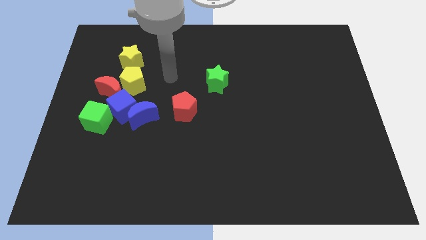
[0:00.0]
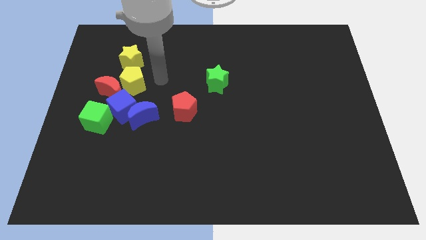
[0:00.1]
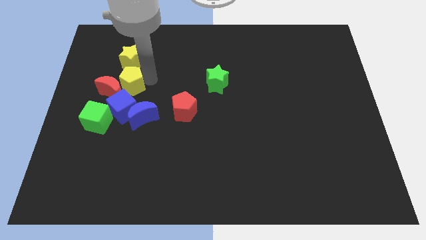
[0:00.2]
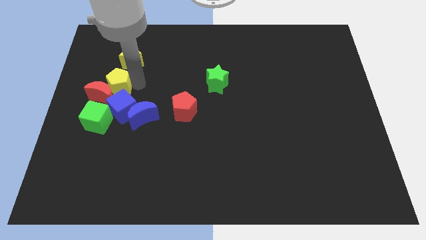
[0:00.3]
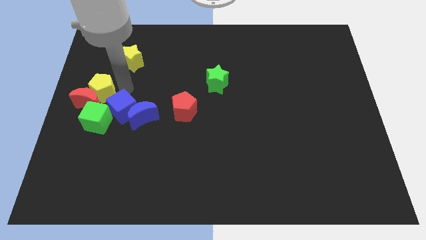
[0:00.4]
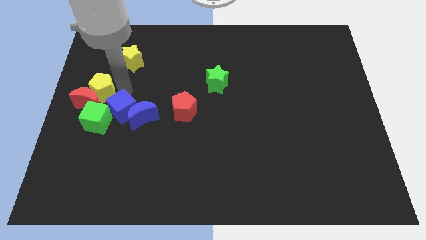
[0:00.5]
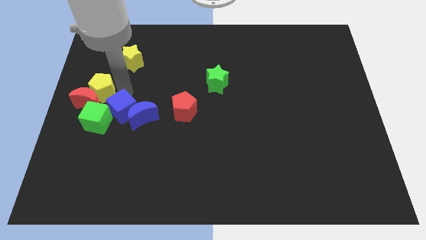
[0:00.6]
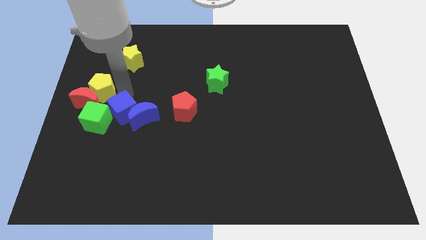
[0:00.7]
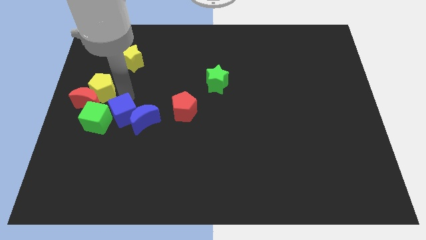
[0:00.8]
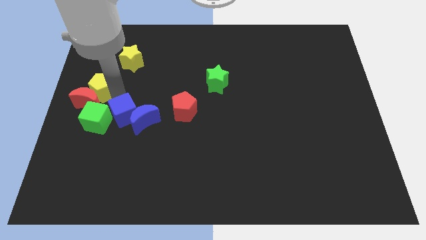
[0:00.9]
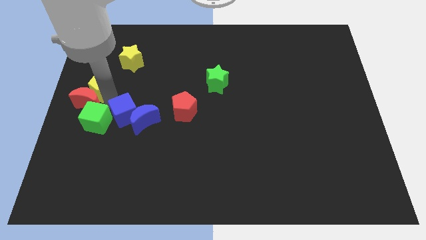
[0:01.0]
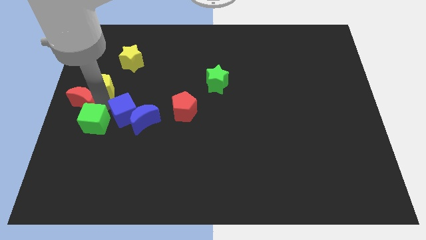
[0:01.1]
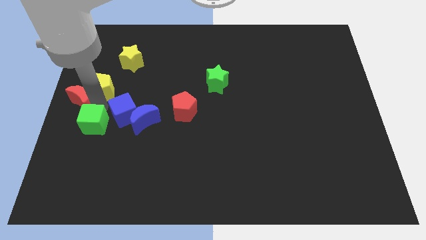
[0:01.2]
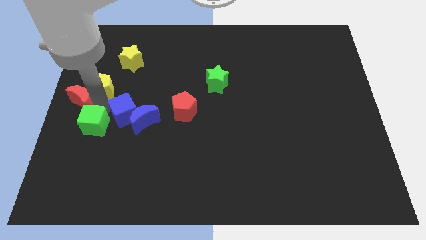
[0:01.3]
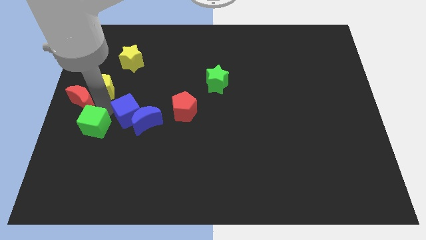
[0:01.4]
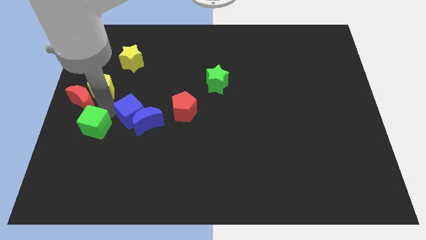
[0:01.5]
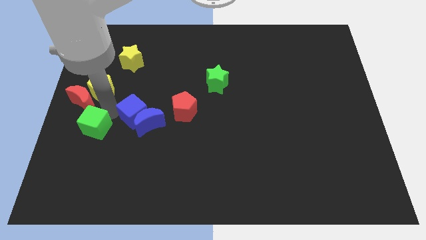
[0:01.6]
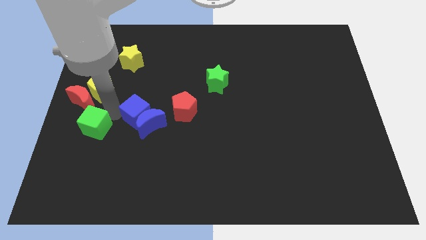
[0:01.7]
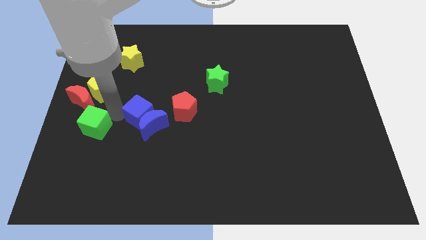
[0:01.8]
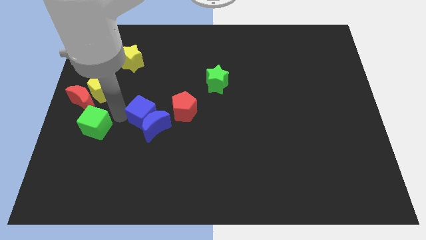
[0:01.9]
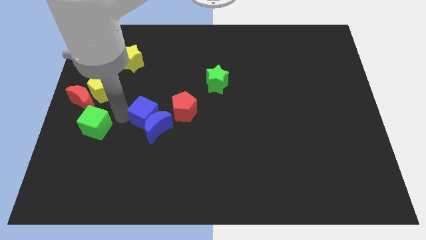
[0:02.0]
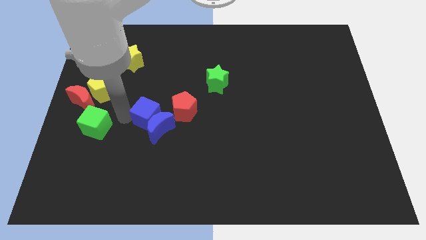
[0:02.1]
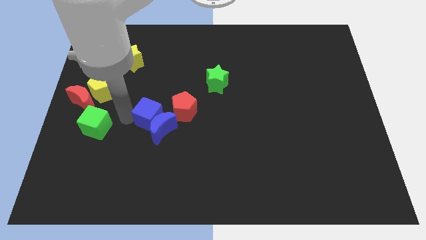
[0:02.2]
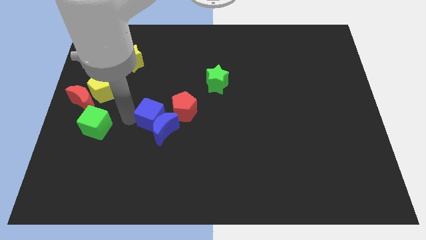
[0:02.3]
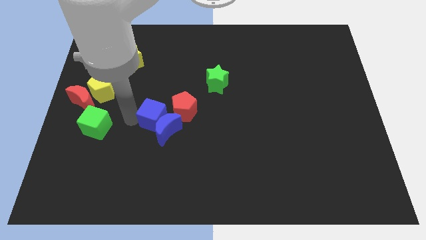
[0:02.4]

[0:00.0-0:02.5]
pull the blue cube apart from the group

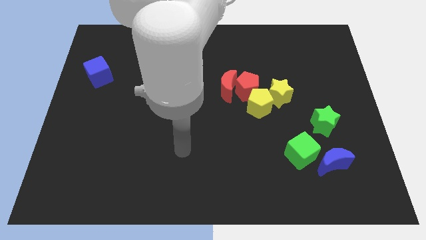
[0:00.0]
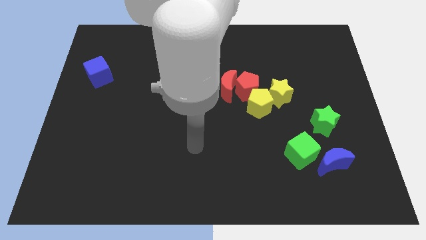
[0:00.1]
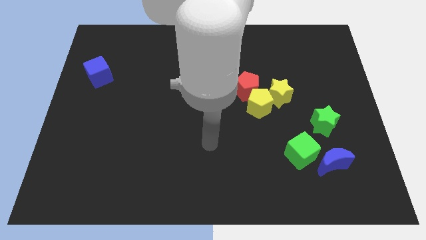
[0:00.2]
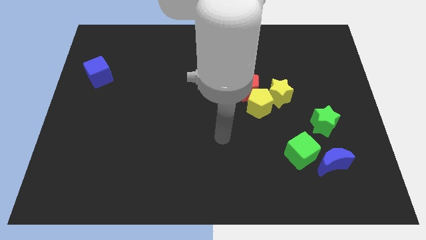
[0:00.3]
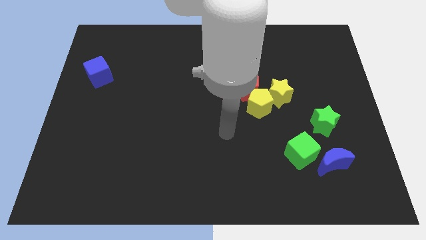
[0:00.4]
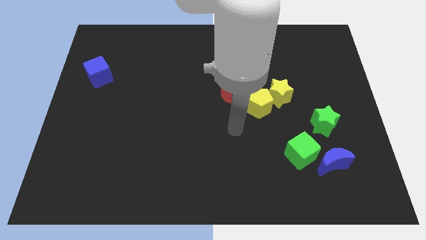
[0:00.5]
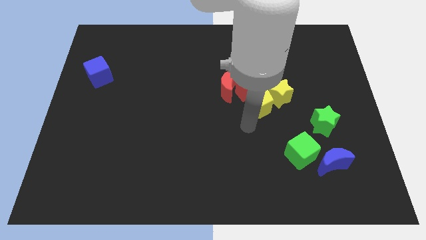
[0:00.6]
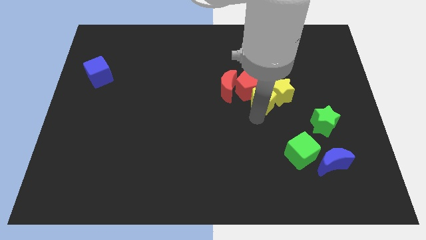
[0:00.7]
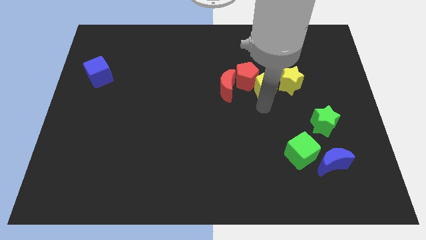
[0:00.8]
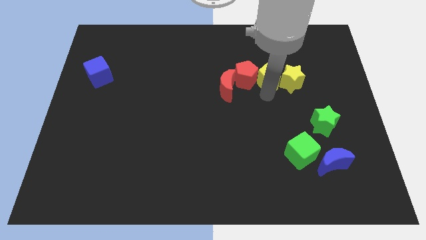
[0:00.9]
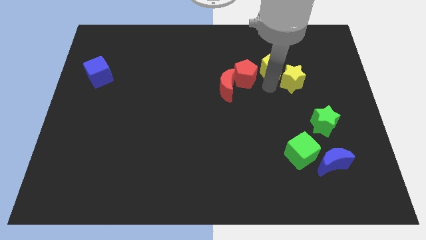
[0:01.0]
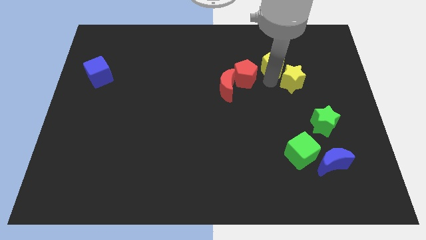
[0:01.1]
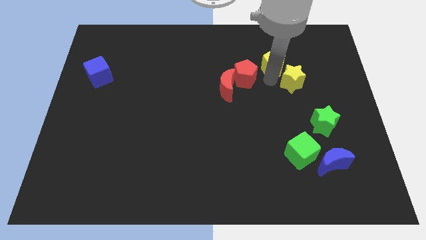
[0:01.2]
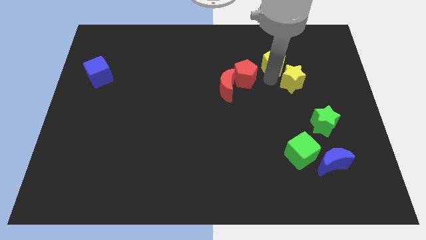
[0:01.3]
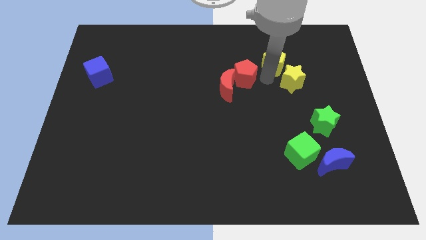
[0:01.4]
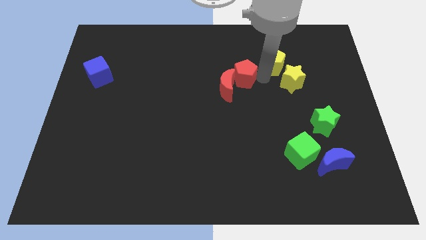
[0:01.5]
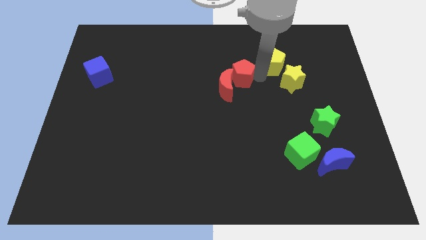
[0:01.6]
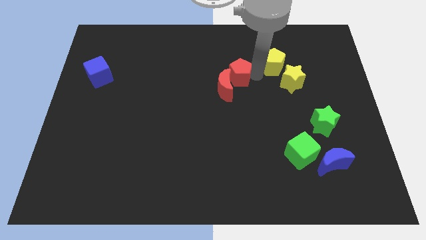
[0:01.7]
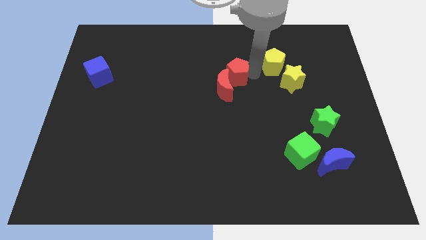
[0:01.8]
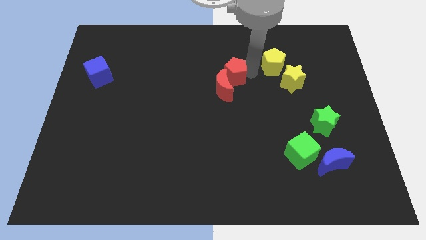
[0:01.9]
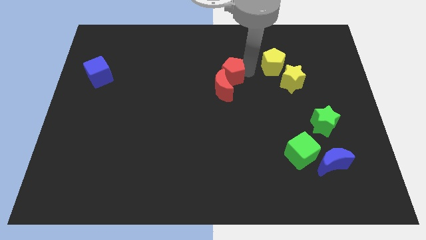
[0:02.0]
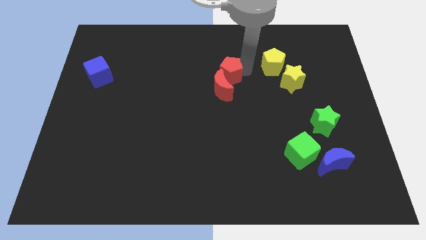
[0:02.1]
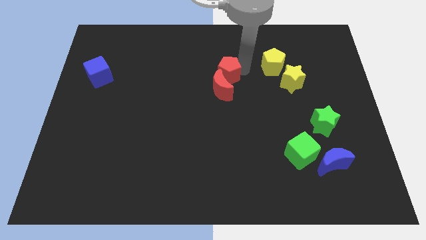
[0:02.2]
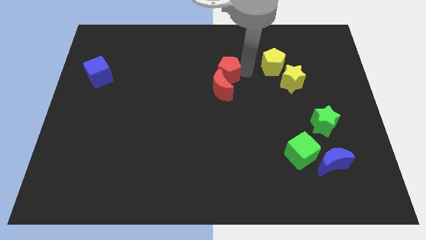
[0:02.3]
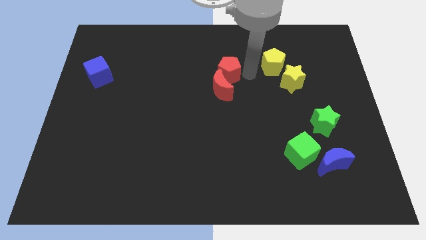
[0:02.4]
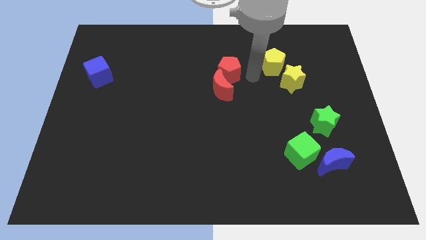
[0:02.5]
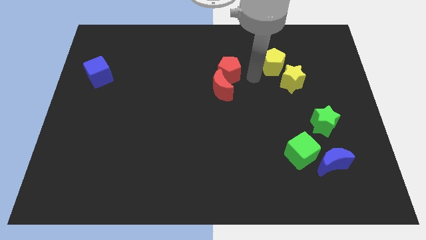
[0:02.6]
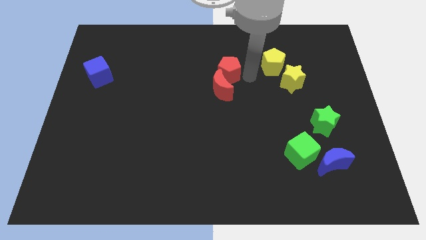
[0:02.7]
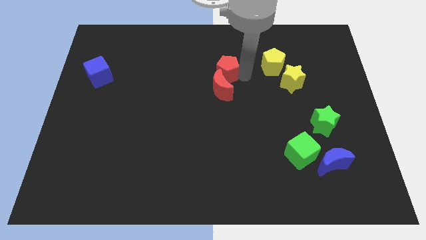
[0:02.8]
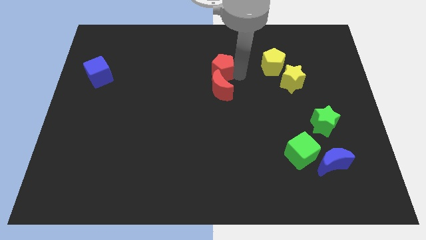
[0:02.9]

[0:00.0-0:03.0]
separate the red pentagon from the red moon, yellow pentagon, and yellow star

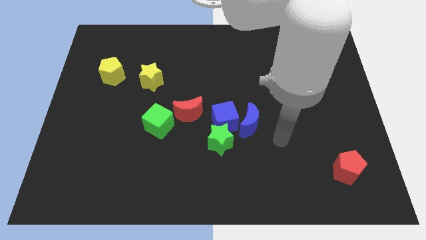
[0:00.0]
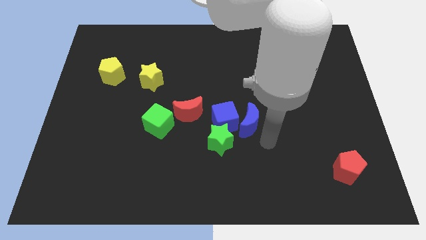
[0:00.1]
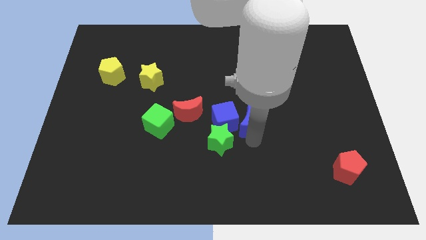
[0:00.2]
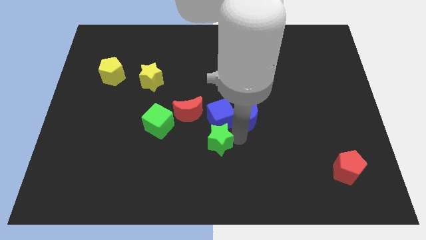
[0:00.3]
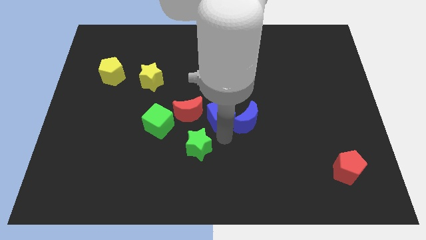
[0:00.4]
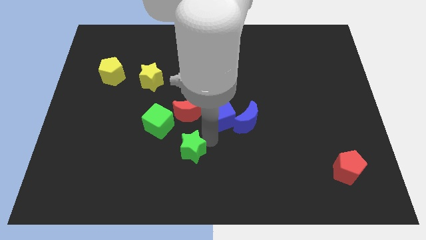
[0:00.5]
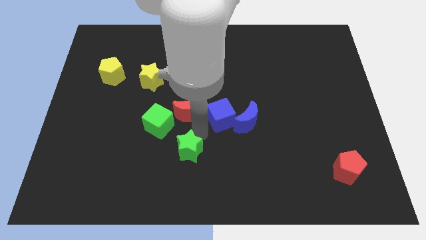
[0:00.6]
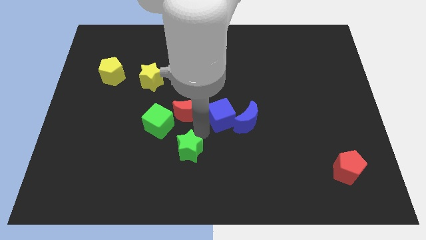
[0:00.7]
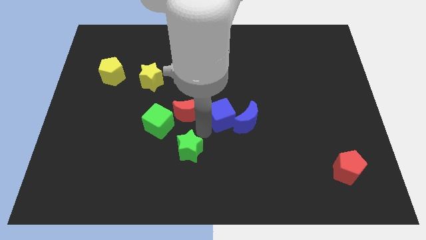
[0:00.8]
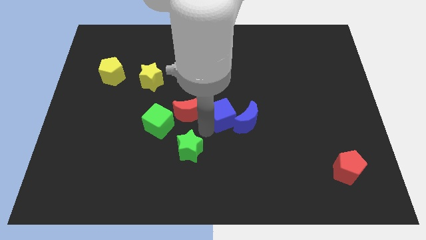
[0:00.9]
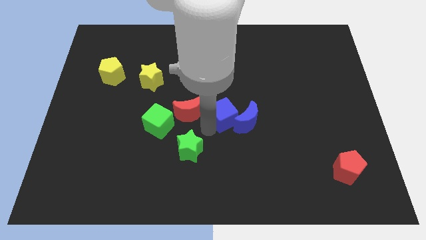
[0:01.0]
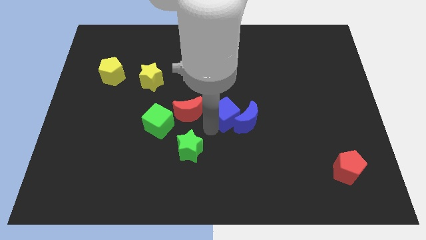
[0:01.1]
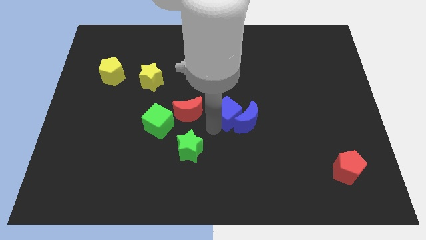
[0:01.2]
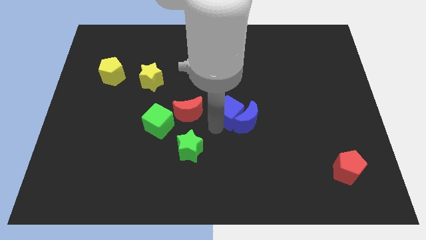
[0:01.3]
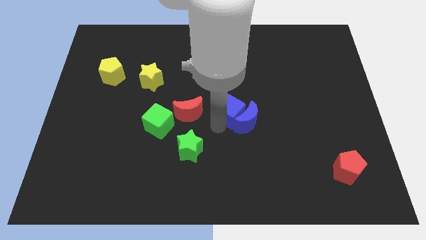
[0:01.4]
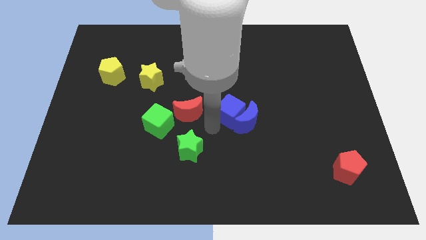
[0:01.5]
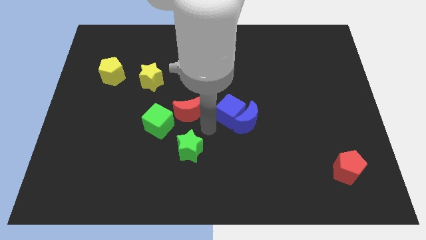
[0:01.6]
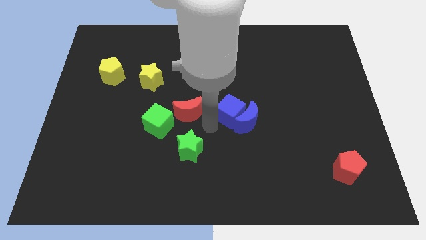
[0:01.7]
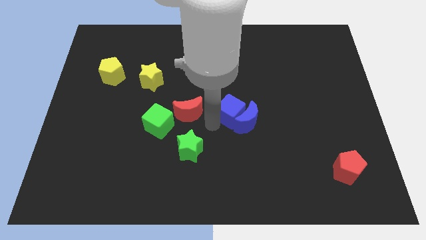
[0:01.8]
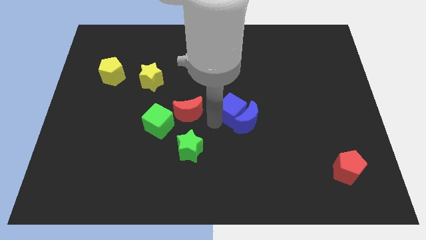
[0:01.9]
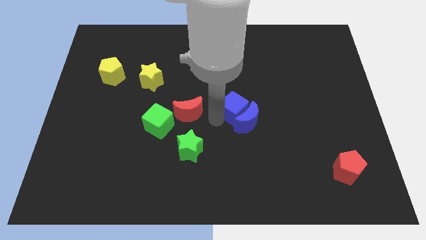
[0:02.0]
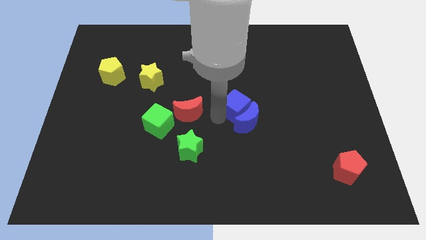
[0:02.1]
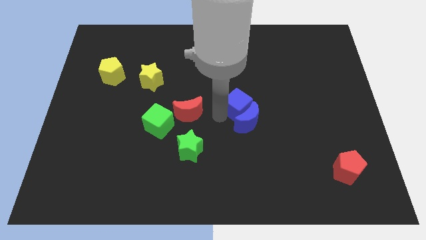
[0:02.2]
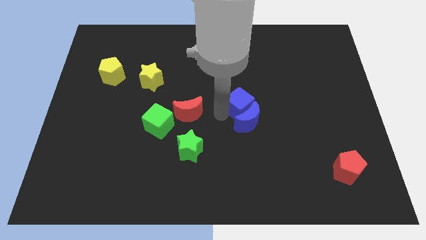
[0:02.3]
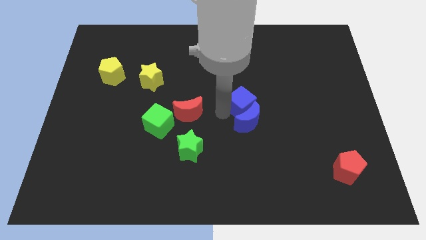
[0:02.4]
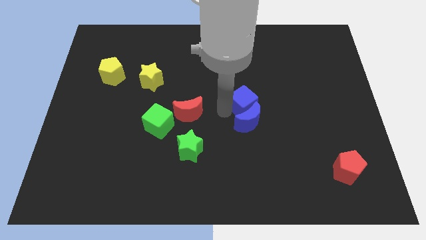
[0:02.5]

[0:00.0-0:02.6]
pull the blue cube apart from the blue moon, green star, and red moon

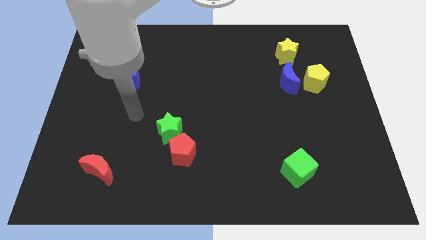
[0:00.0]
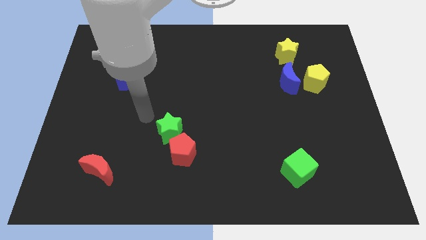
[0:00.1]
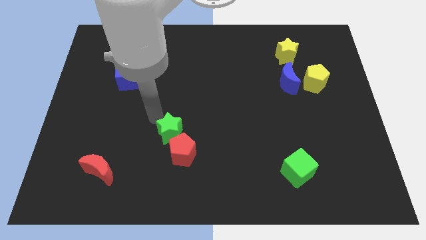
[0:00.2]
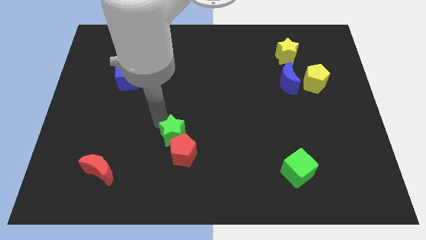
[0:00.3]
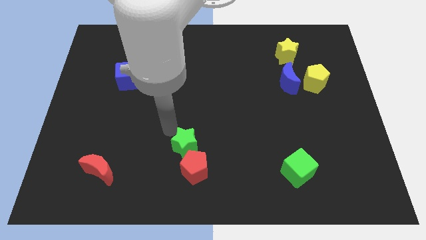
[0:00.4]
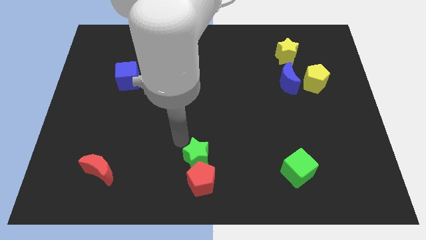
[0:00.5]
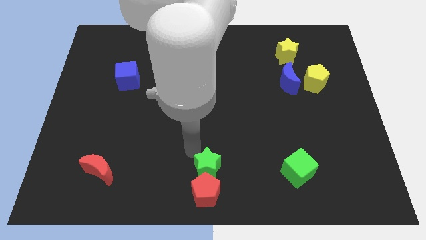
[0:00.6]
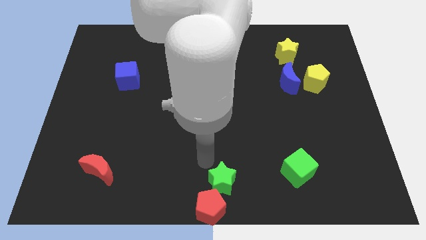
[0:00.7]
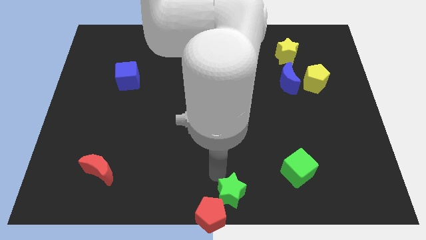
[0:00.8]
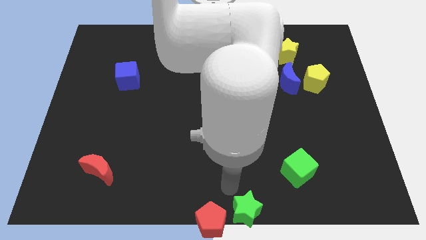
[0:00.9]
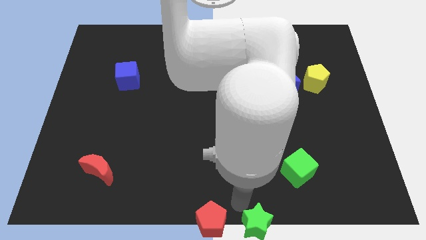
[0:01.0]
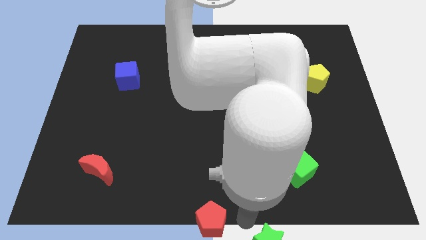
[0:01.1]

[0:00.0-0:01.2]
separate the red pentagon from the green star
